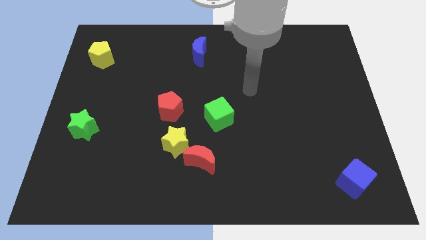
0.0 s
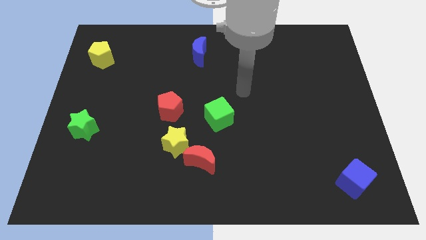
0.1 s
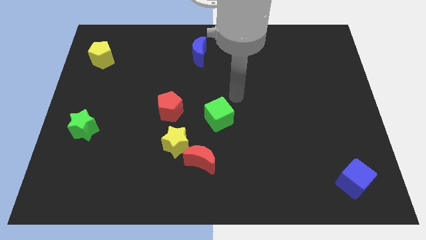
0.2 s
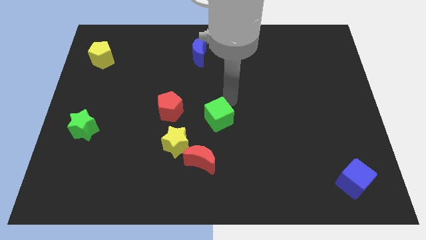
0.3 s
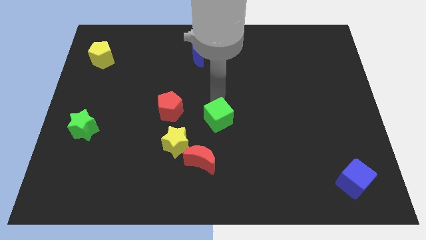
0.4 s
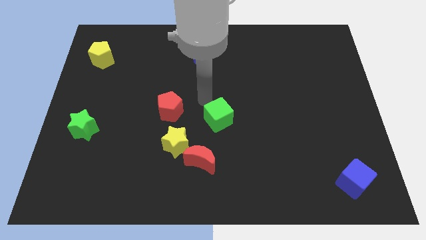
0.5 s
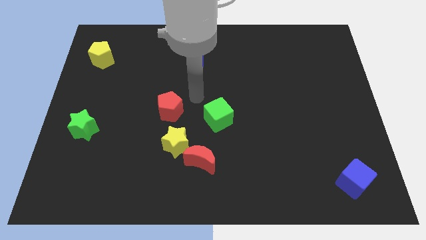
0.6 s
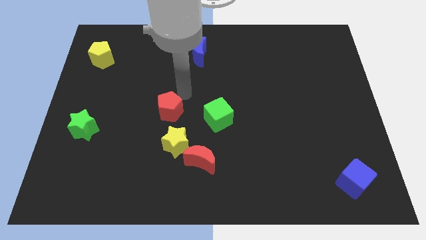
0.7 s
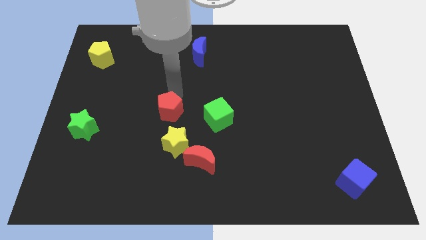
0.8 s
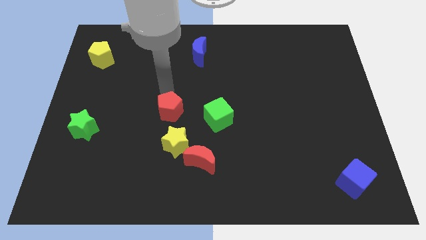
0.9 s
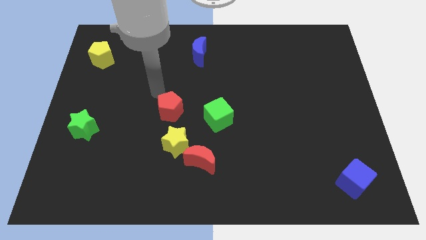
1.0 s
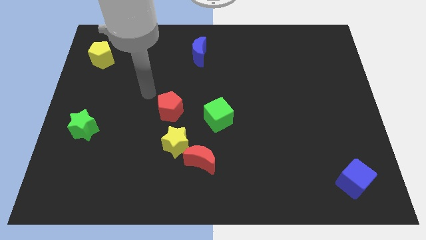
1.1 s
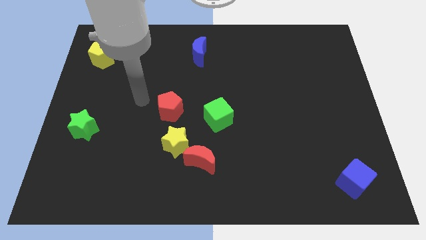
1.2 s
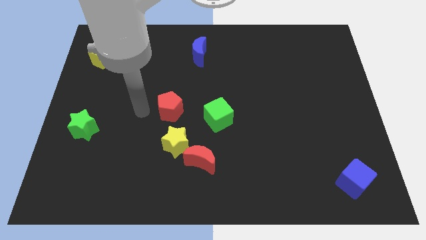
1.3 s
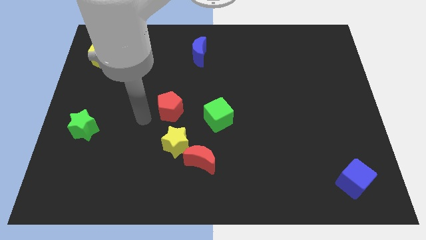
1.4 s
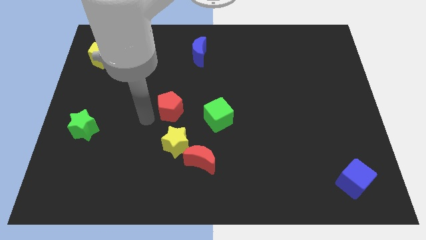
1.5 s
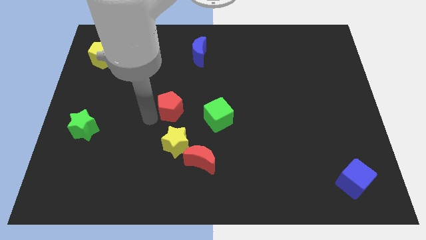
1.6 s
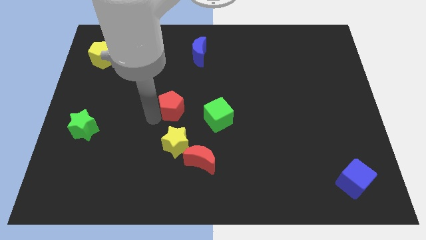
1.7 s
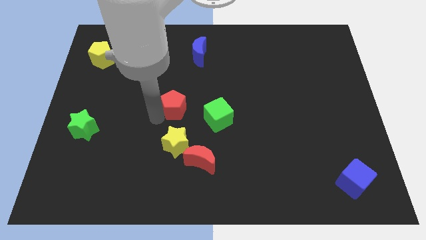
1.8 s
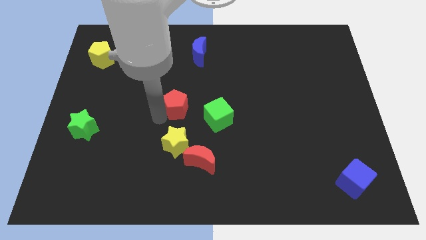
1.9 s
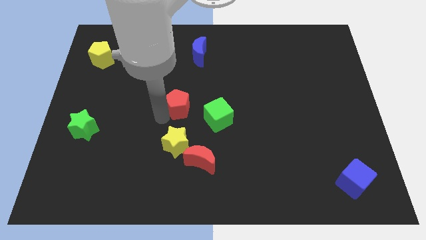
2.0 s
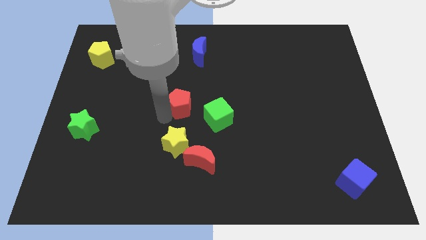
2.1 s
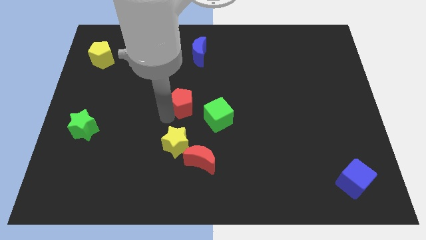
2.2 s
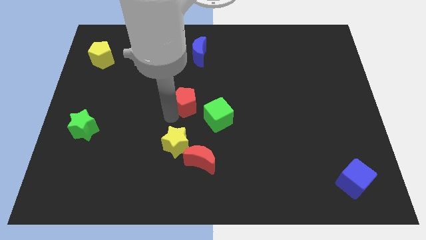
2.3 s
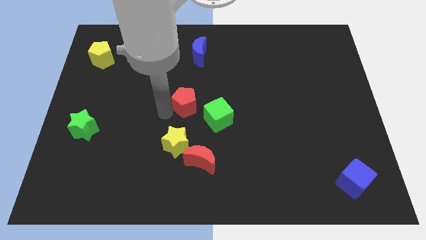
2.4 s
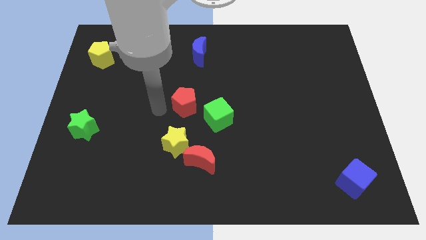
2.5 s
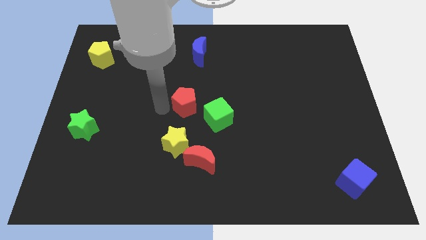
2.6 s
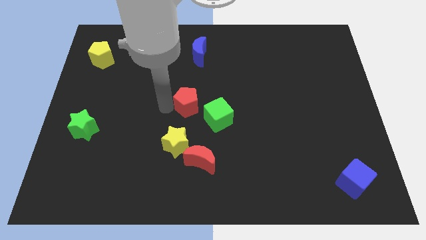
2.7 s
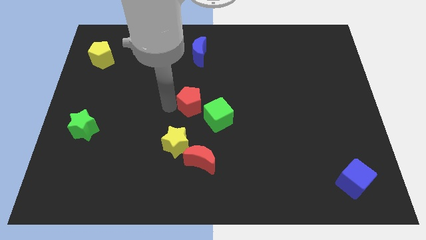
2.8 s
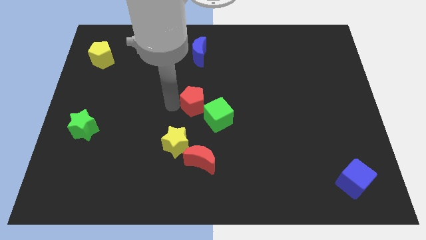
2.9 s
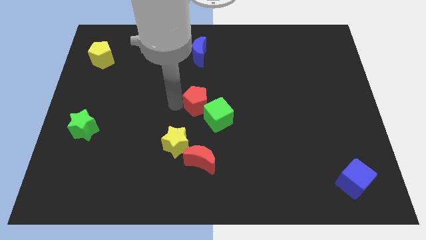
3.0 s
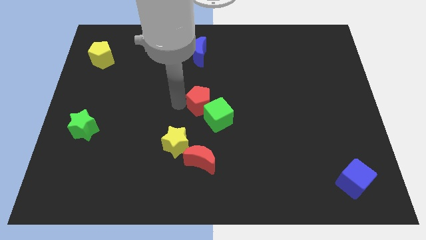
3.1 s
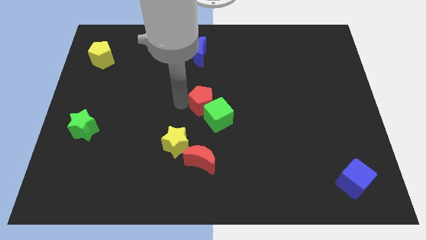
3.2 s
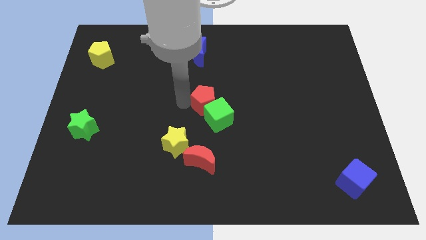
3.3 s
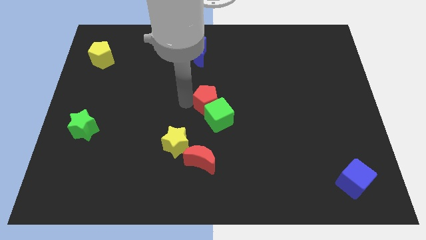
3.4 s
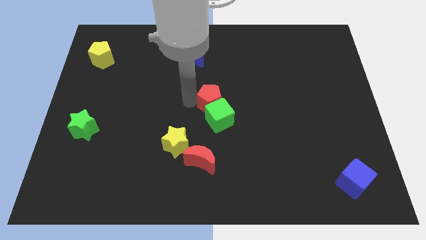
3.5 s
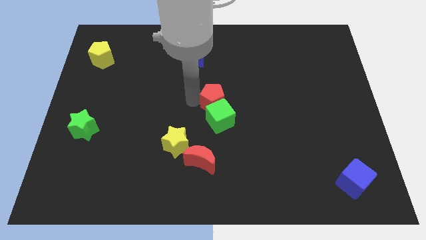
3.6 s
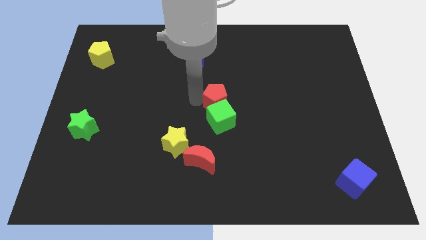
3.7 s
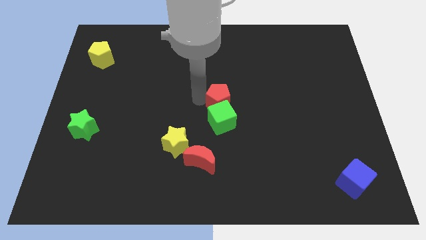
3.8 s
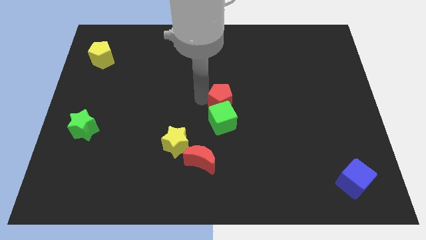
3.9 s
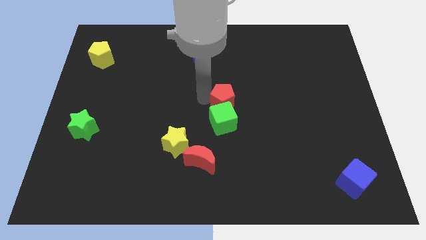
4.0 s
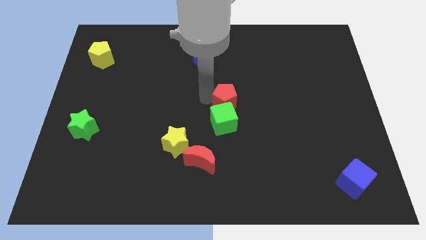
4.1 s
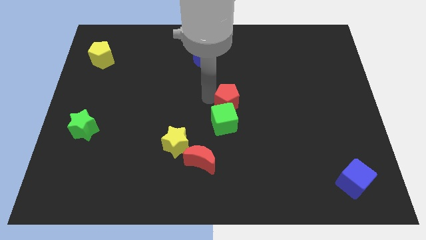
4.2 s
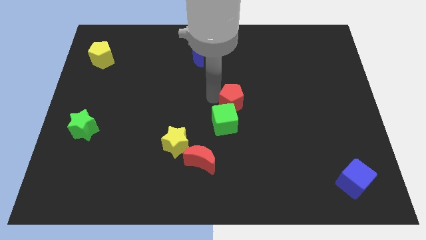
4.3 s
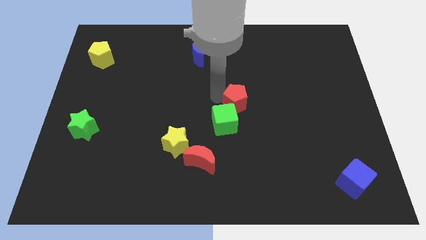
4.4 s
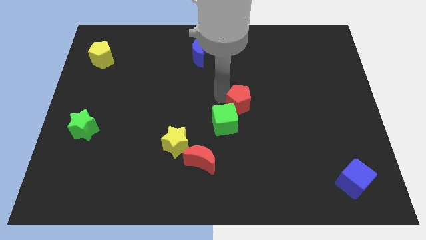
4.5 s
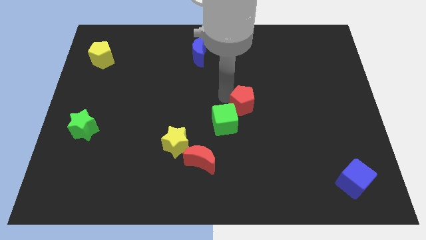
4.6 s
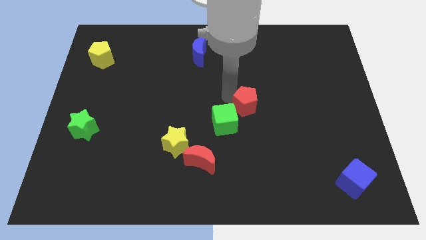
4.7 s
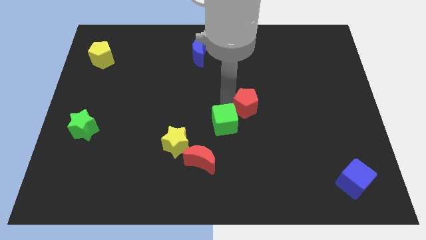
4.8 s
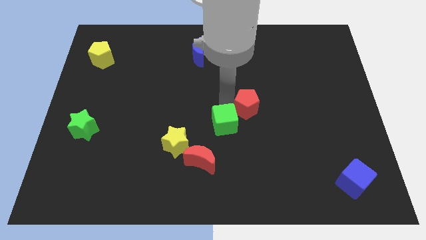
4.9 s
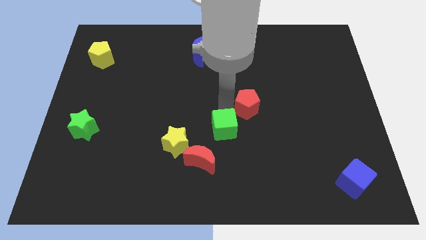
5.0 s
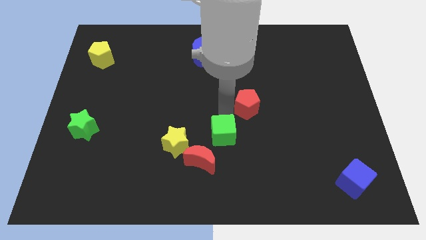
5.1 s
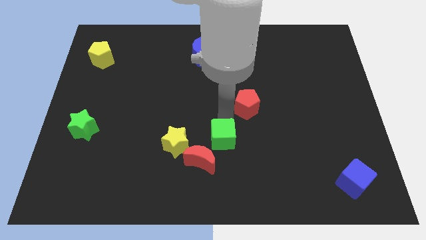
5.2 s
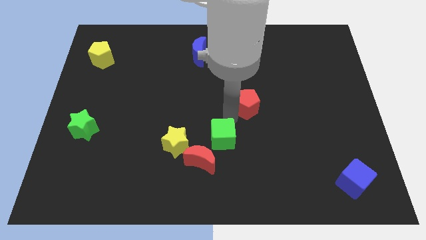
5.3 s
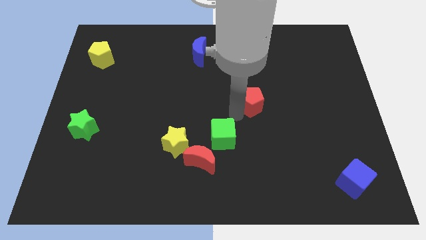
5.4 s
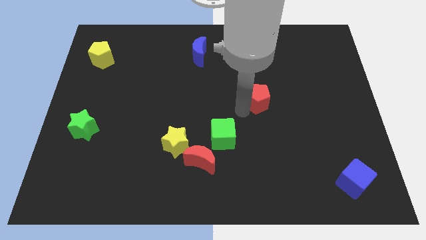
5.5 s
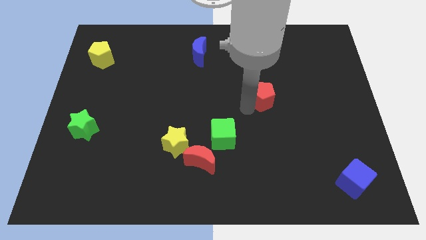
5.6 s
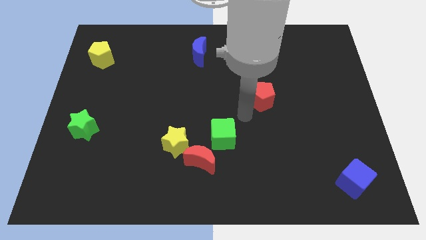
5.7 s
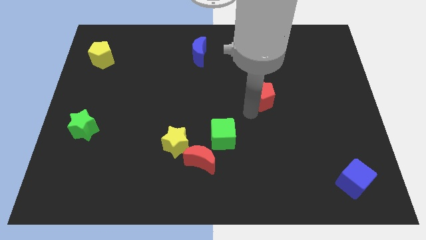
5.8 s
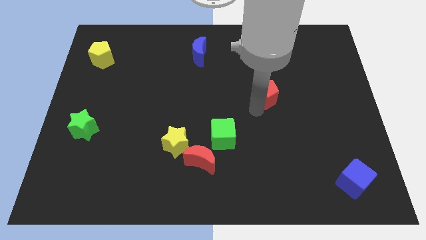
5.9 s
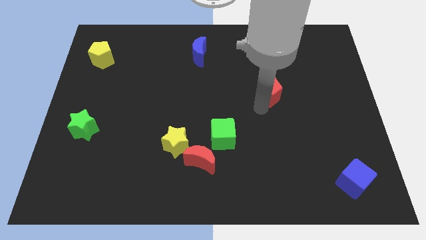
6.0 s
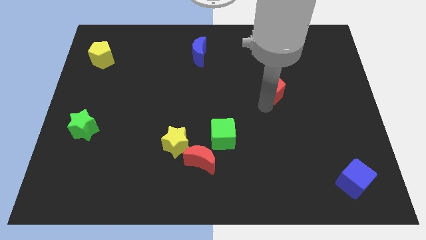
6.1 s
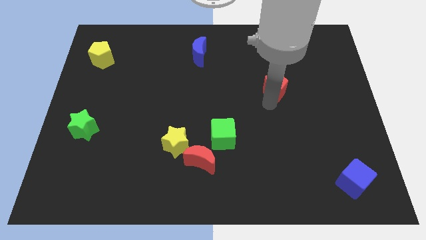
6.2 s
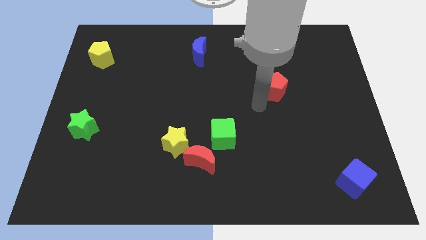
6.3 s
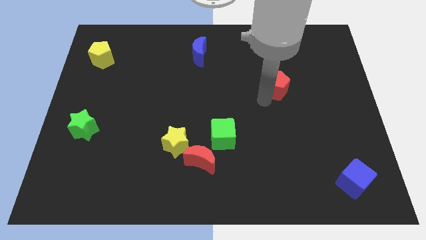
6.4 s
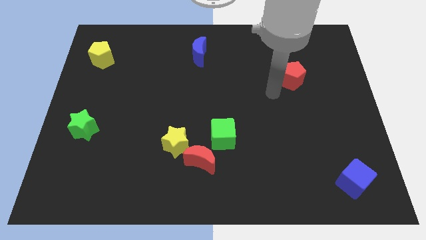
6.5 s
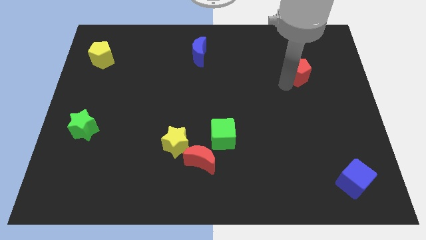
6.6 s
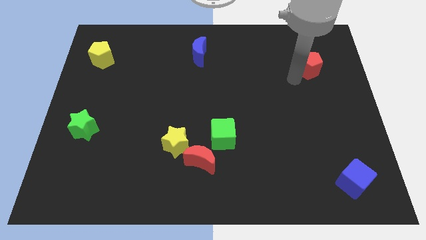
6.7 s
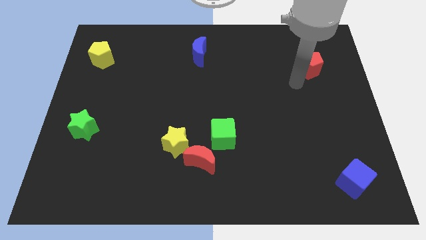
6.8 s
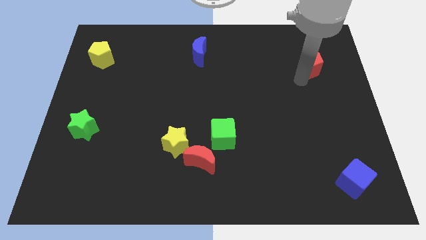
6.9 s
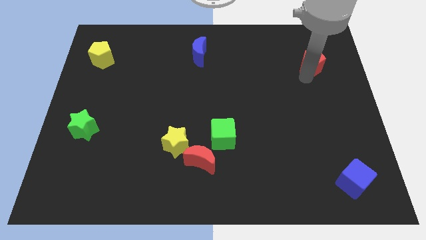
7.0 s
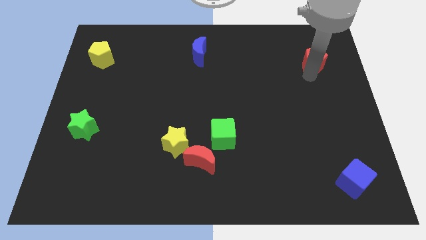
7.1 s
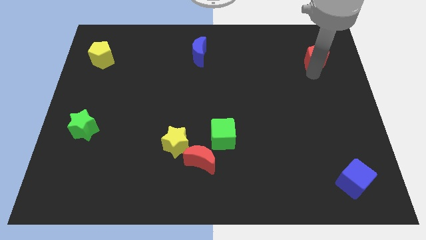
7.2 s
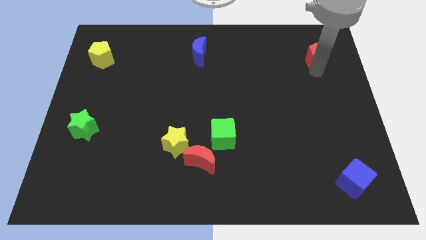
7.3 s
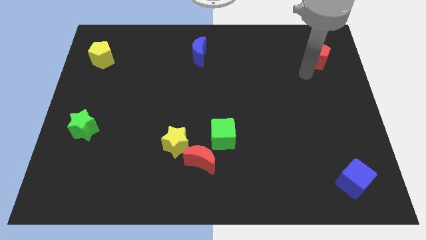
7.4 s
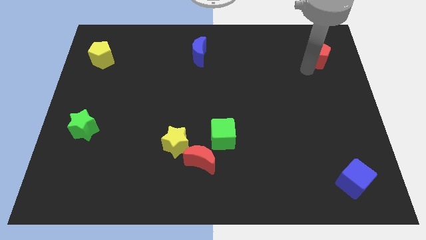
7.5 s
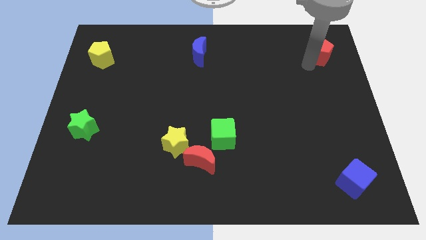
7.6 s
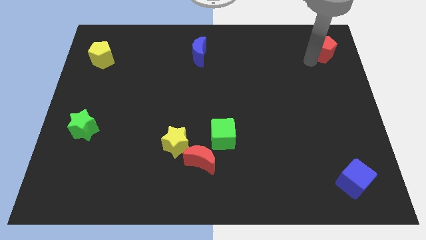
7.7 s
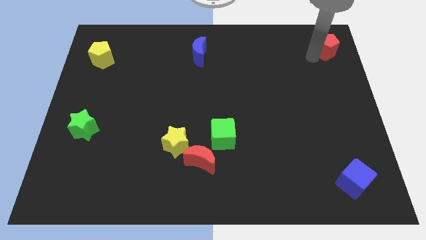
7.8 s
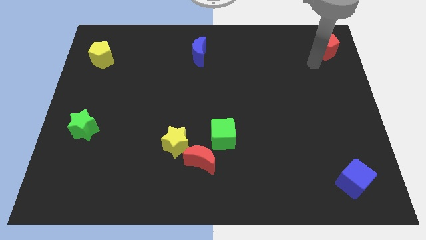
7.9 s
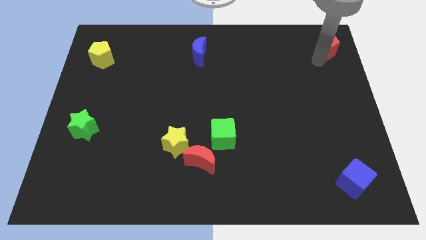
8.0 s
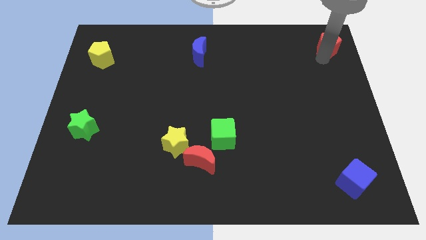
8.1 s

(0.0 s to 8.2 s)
slide the red pentagon to the upper right corner
